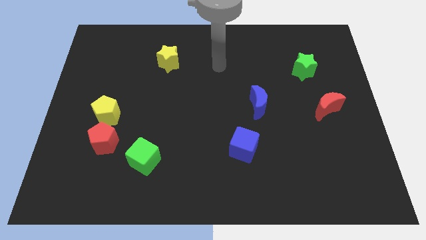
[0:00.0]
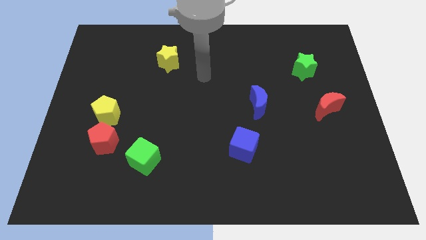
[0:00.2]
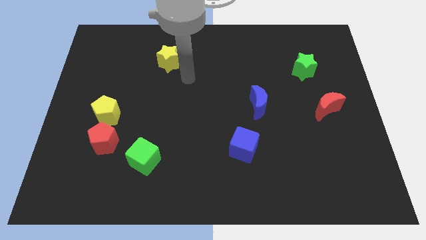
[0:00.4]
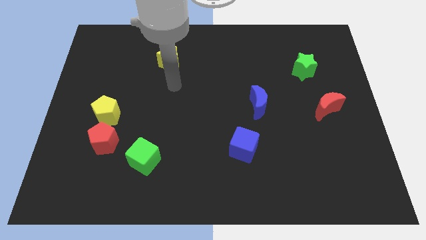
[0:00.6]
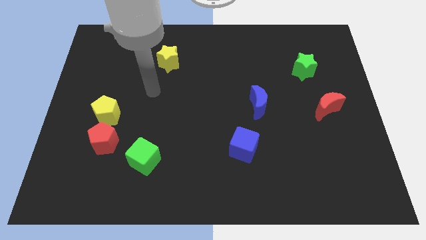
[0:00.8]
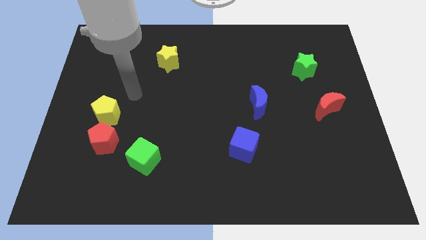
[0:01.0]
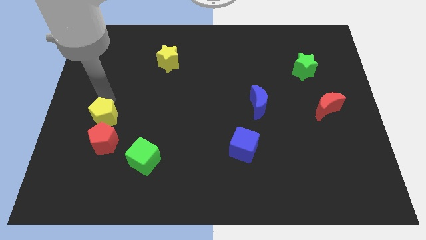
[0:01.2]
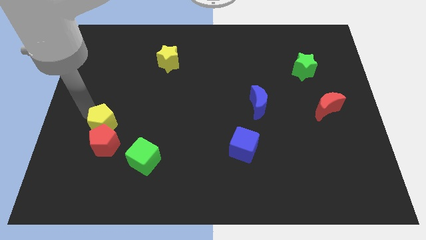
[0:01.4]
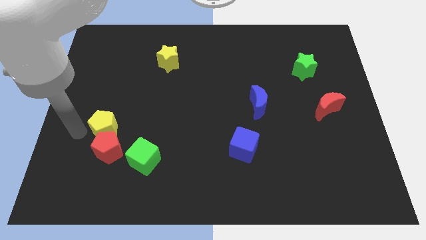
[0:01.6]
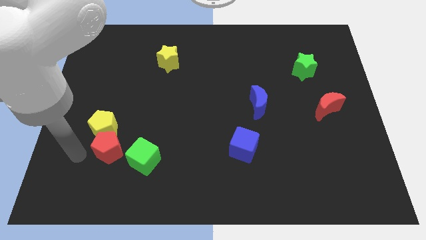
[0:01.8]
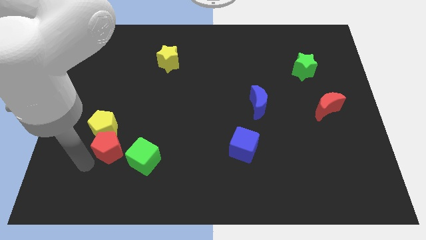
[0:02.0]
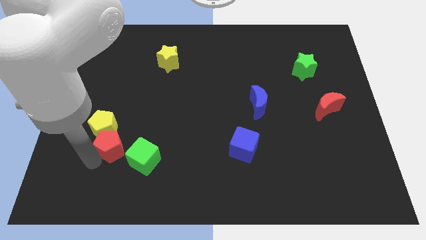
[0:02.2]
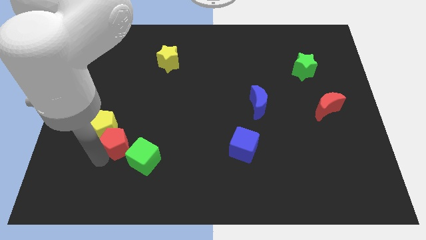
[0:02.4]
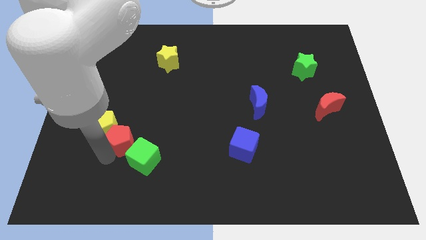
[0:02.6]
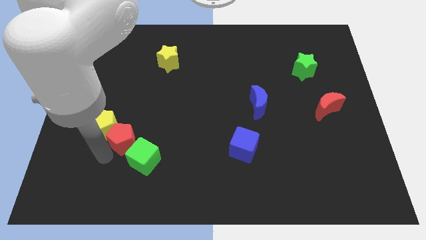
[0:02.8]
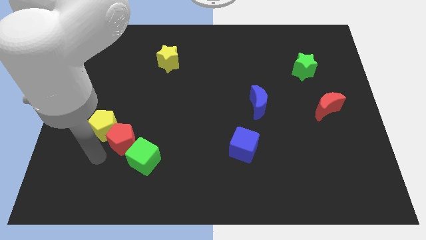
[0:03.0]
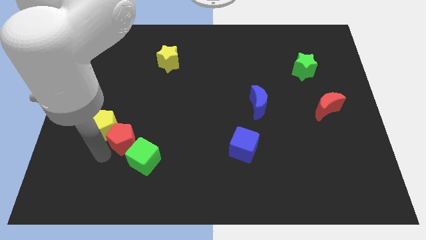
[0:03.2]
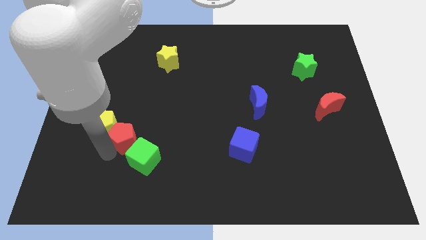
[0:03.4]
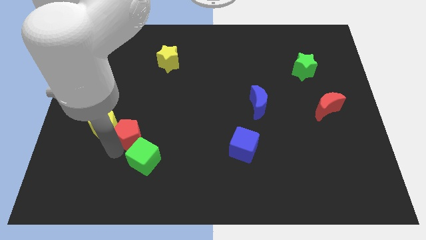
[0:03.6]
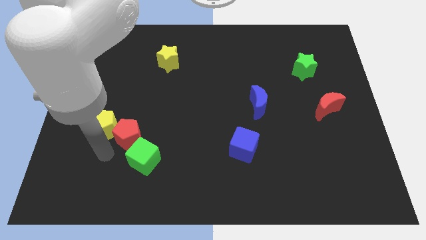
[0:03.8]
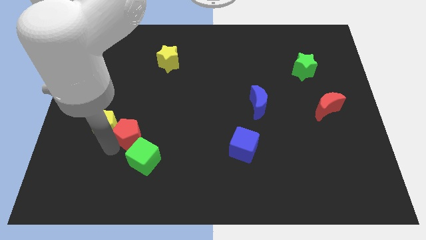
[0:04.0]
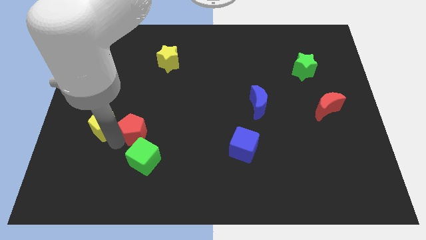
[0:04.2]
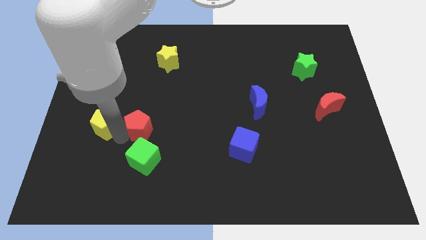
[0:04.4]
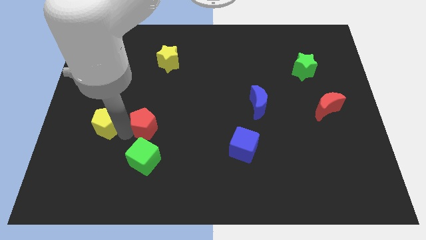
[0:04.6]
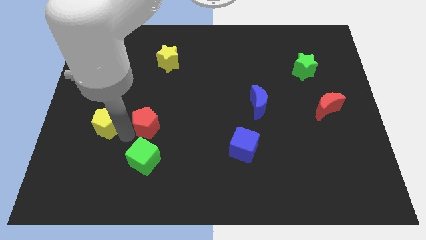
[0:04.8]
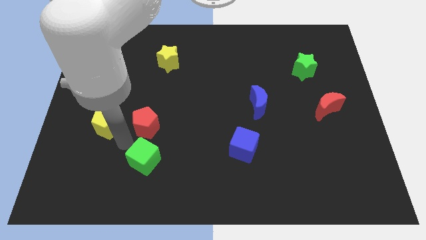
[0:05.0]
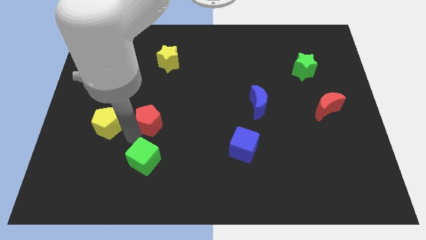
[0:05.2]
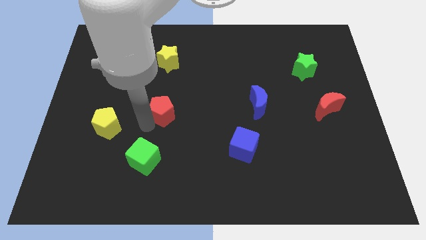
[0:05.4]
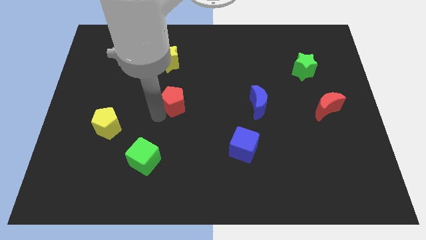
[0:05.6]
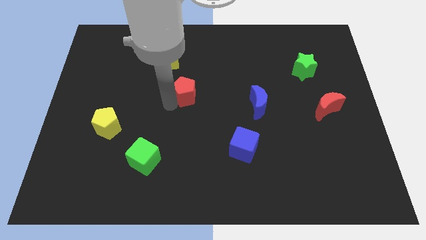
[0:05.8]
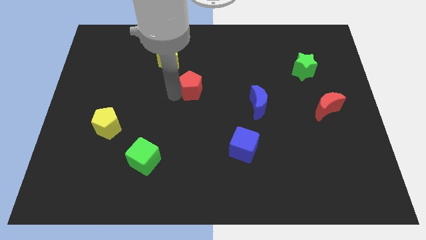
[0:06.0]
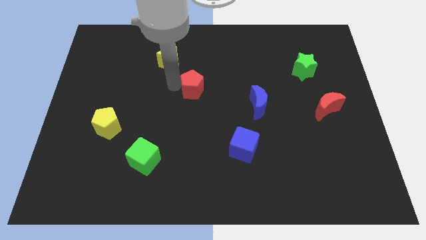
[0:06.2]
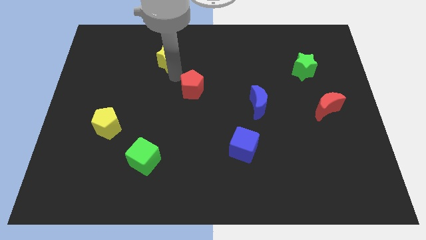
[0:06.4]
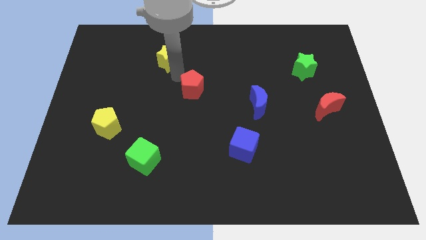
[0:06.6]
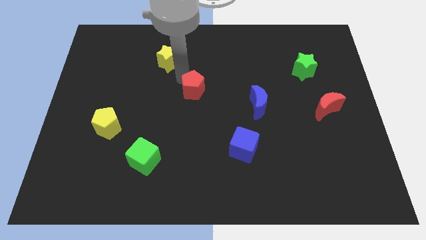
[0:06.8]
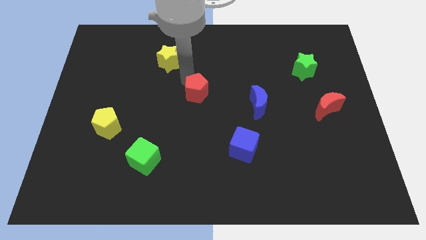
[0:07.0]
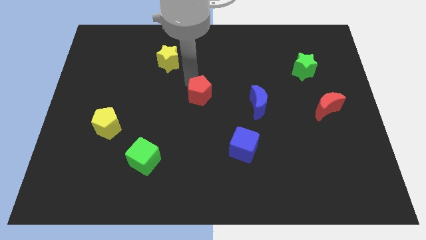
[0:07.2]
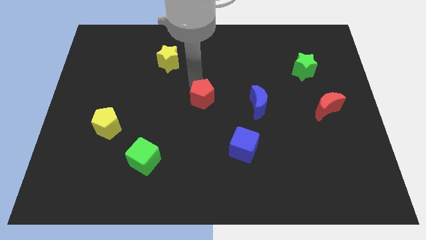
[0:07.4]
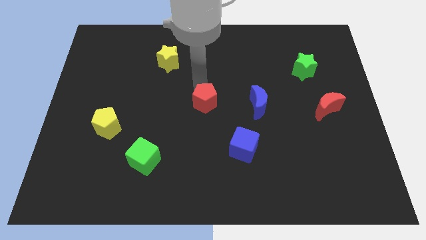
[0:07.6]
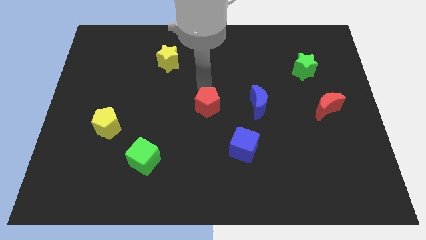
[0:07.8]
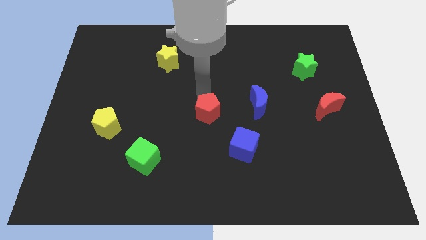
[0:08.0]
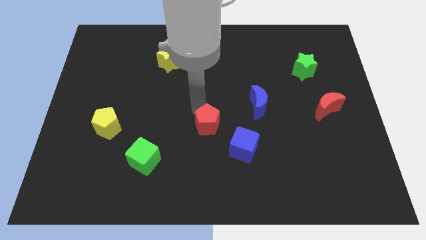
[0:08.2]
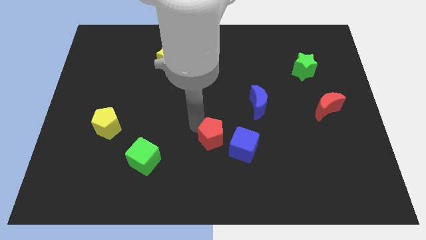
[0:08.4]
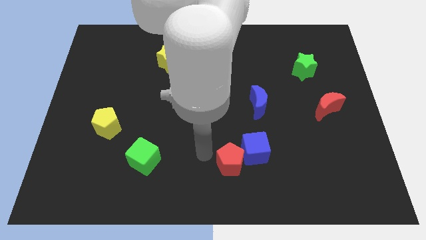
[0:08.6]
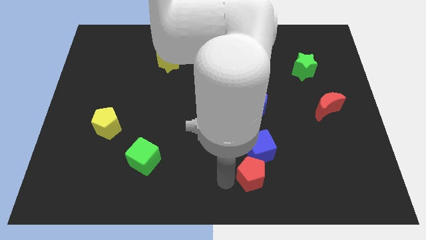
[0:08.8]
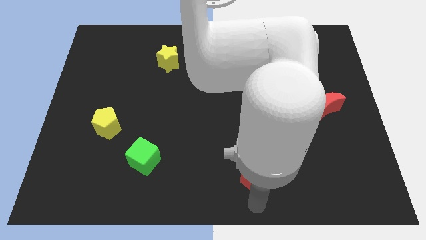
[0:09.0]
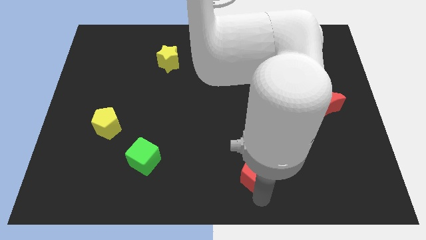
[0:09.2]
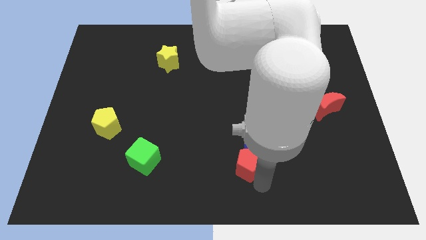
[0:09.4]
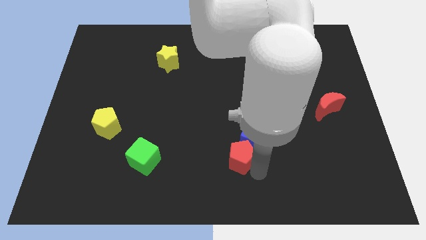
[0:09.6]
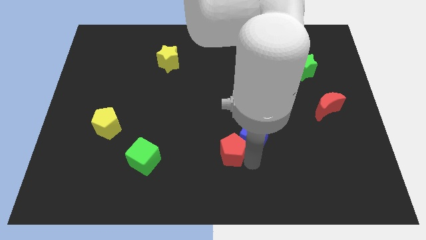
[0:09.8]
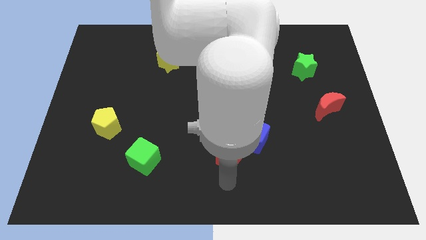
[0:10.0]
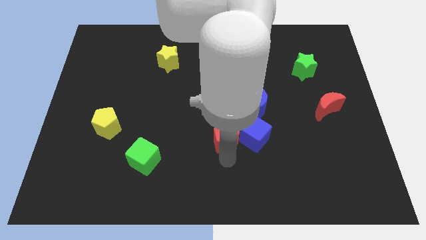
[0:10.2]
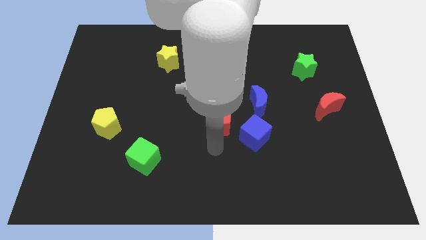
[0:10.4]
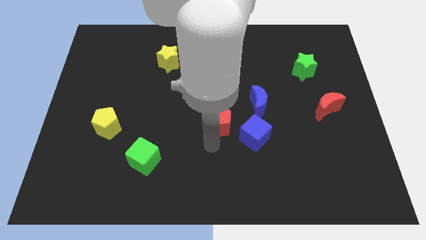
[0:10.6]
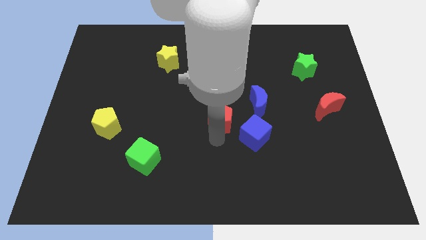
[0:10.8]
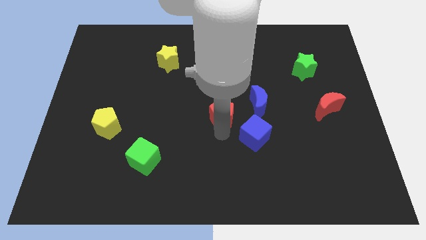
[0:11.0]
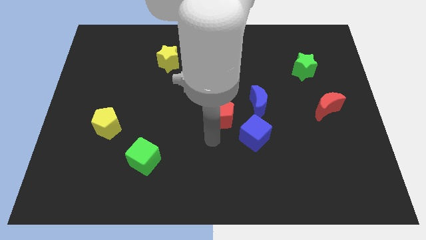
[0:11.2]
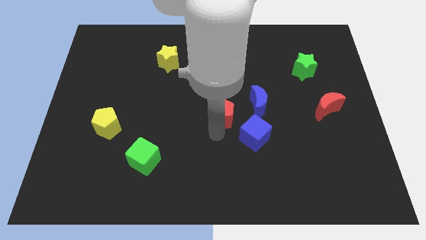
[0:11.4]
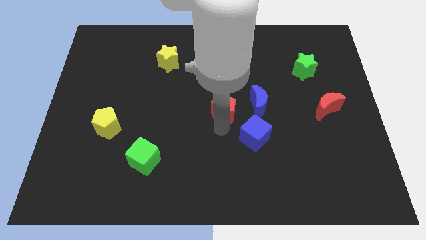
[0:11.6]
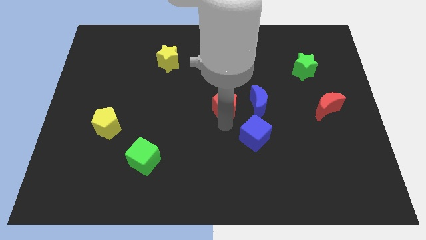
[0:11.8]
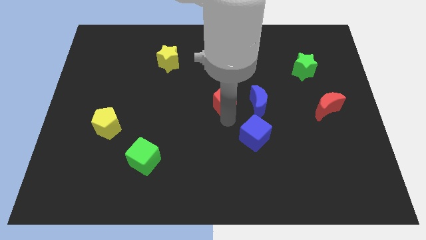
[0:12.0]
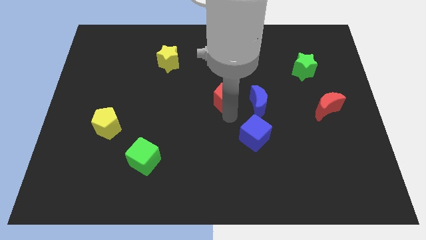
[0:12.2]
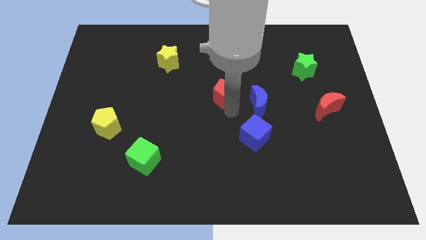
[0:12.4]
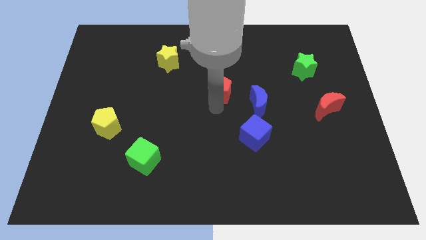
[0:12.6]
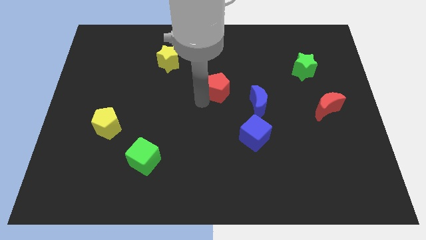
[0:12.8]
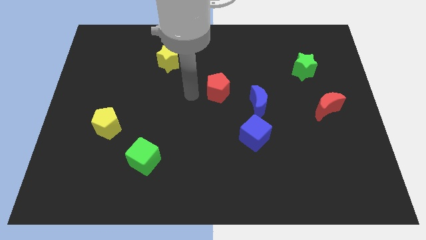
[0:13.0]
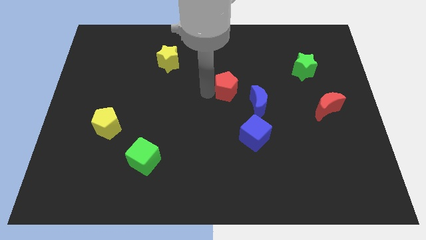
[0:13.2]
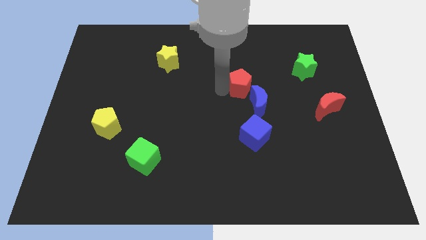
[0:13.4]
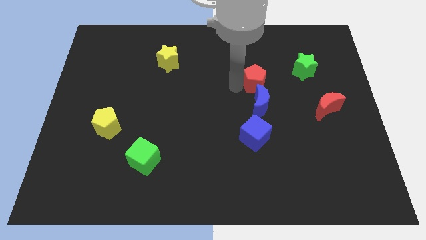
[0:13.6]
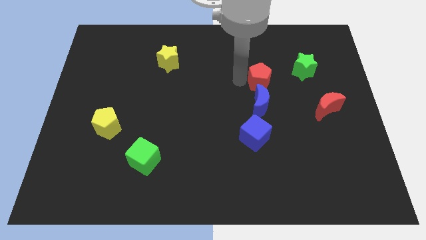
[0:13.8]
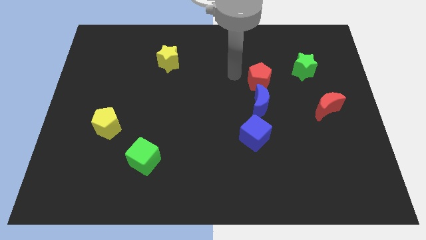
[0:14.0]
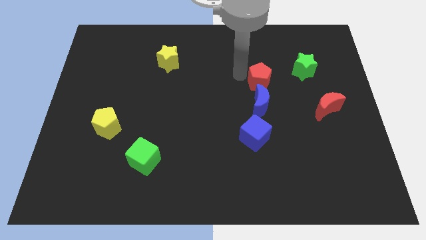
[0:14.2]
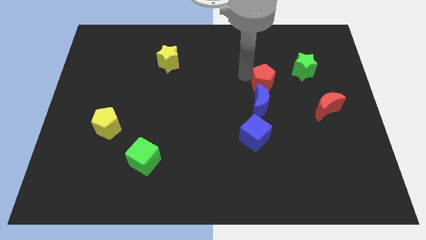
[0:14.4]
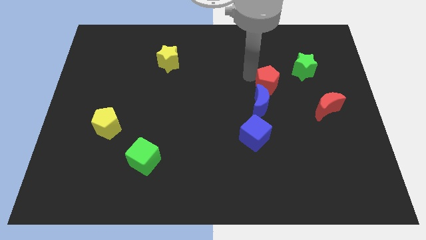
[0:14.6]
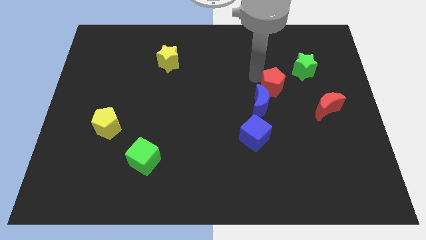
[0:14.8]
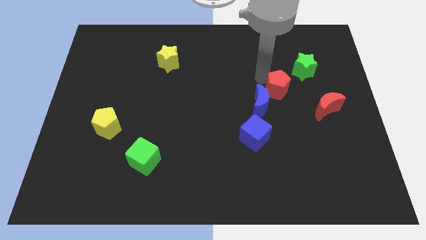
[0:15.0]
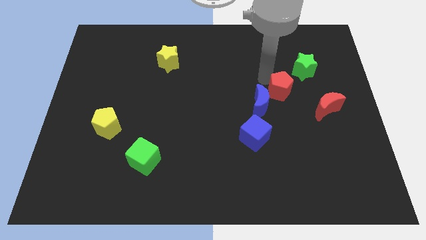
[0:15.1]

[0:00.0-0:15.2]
slide the red pentagon to the top left of the red moon

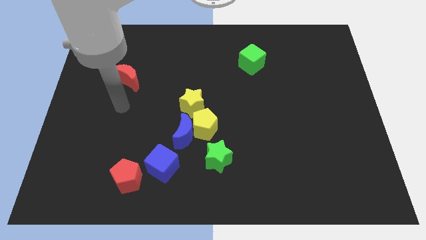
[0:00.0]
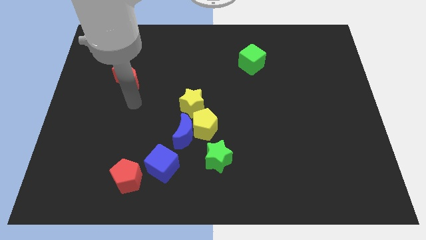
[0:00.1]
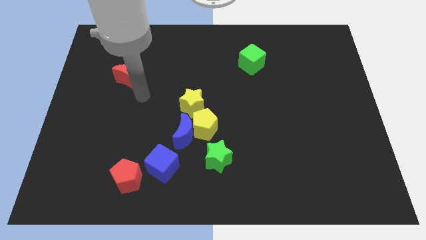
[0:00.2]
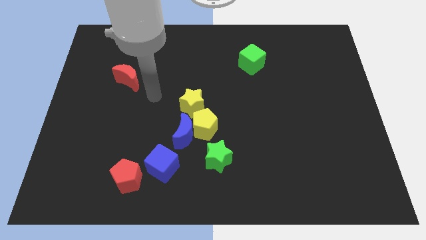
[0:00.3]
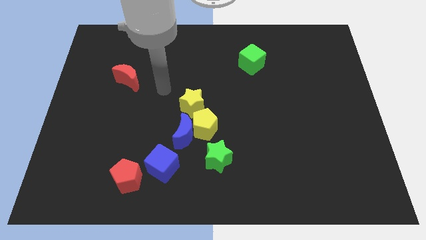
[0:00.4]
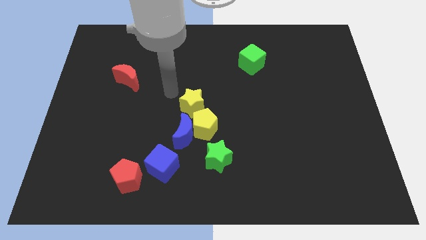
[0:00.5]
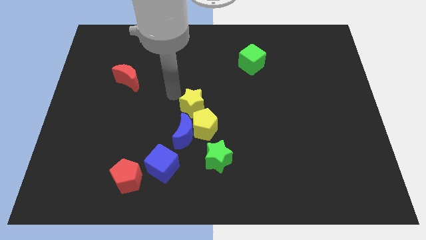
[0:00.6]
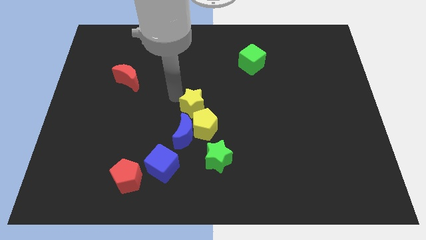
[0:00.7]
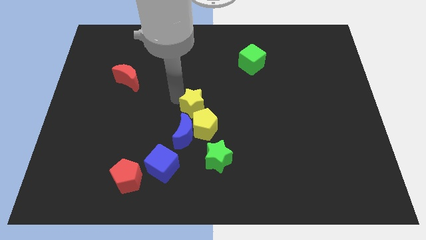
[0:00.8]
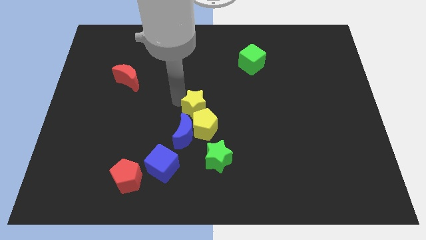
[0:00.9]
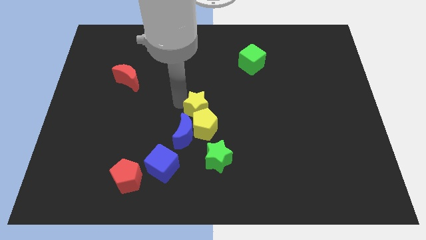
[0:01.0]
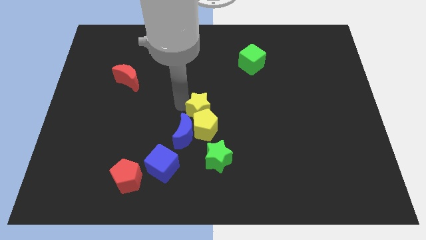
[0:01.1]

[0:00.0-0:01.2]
push the yellow star to the top of the green star
